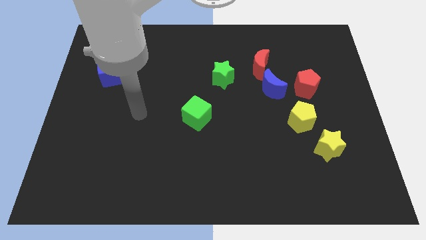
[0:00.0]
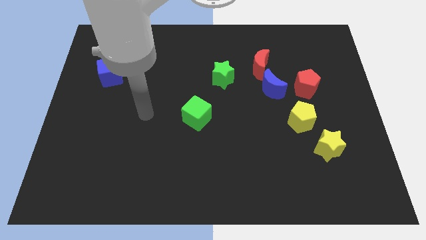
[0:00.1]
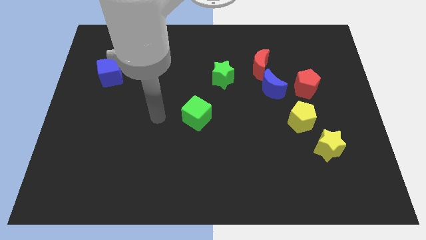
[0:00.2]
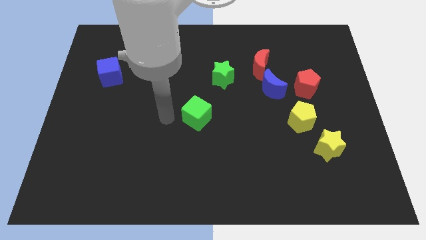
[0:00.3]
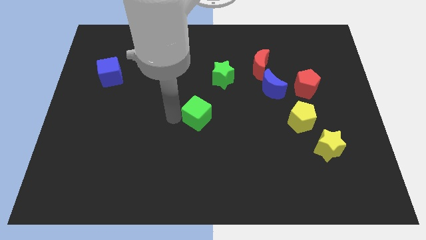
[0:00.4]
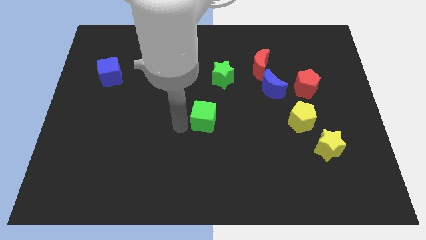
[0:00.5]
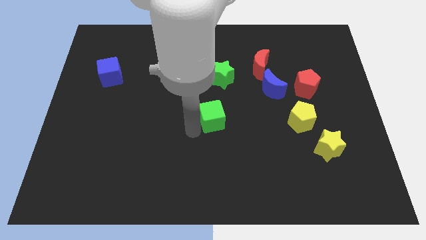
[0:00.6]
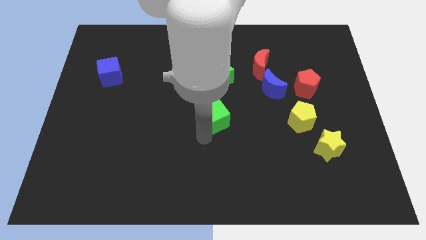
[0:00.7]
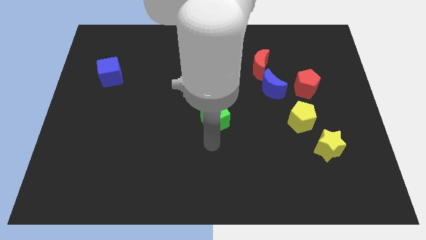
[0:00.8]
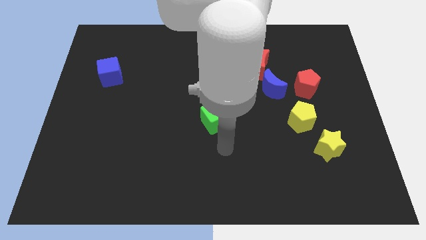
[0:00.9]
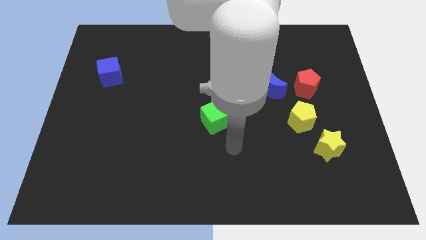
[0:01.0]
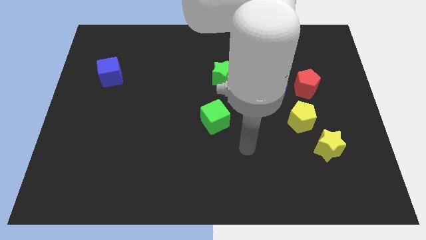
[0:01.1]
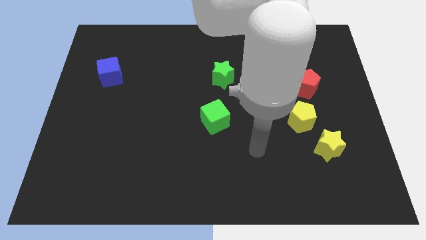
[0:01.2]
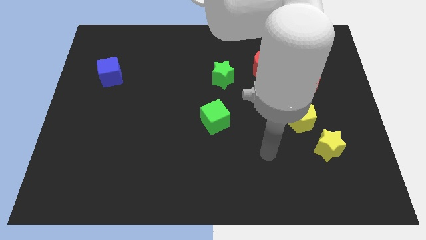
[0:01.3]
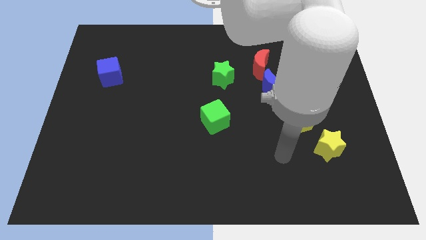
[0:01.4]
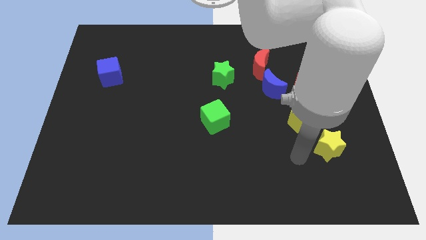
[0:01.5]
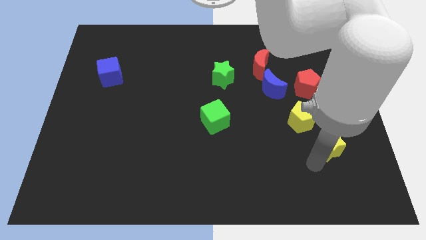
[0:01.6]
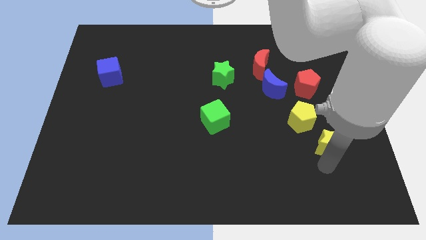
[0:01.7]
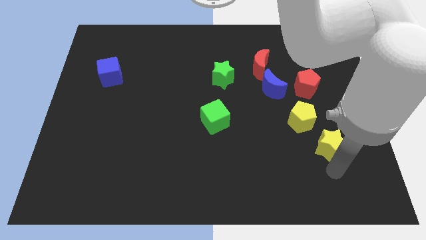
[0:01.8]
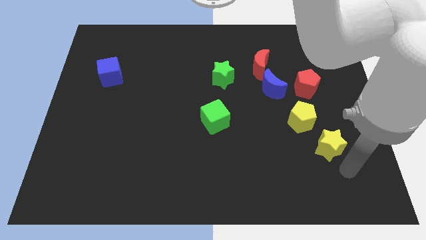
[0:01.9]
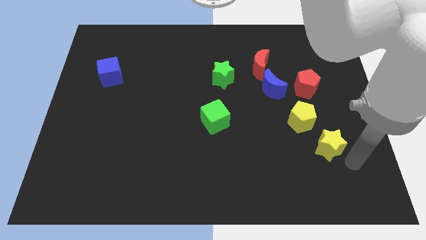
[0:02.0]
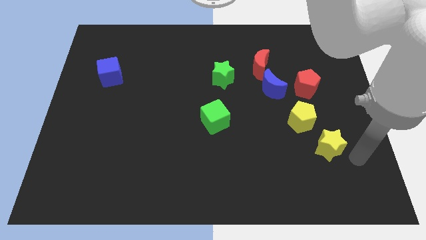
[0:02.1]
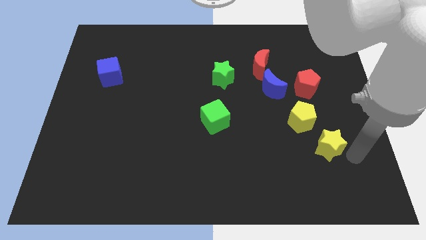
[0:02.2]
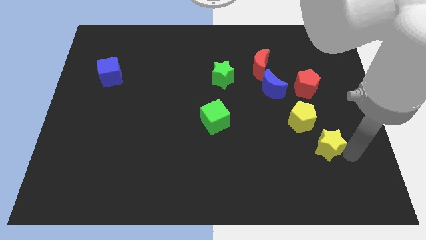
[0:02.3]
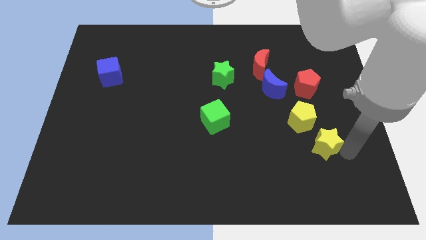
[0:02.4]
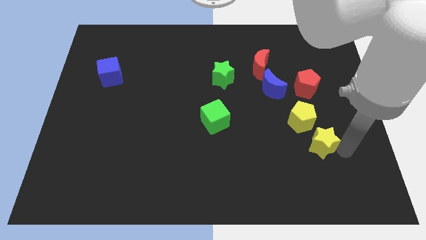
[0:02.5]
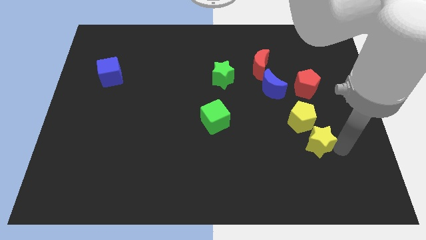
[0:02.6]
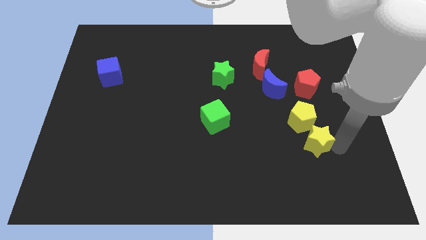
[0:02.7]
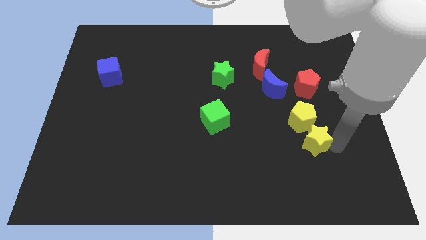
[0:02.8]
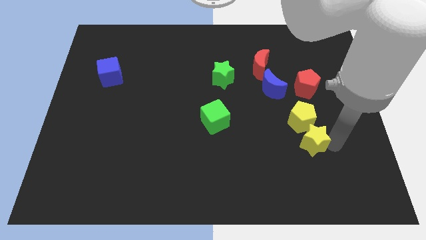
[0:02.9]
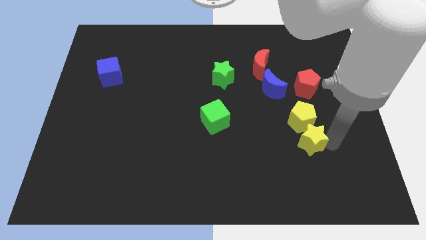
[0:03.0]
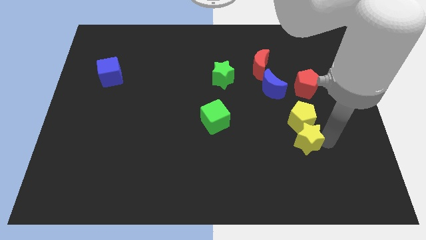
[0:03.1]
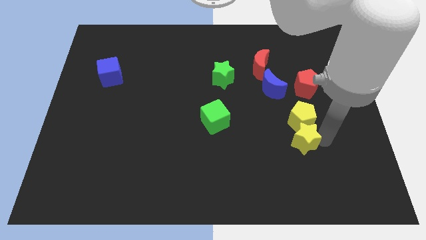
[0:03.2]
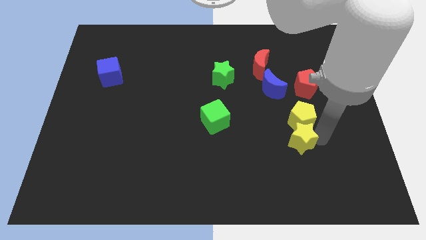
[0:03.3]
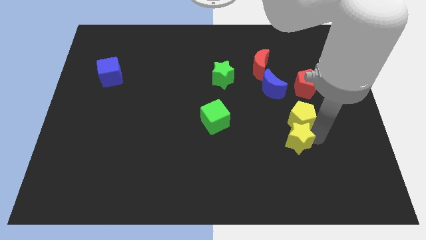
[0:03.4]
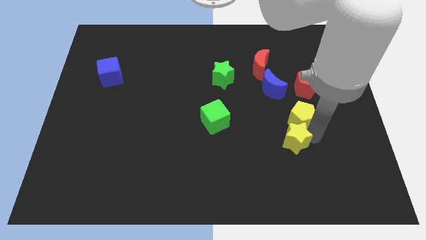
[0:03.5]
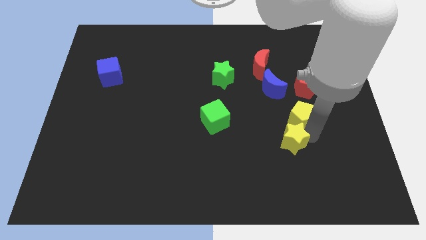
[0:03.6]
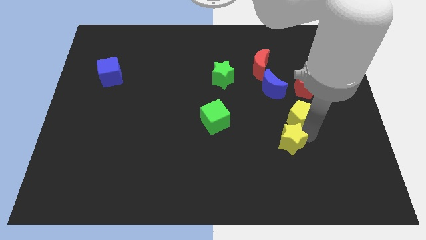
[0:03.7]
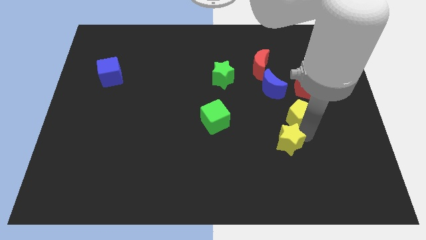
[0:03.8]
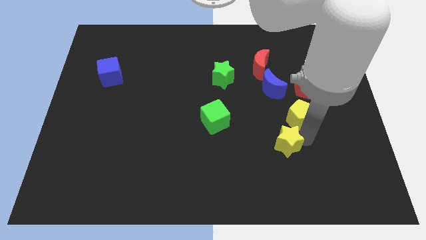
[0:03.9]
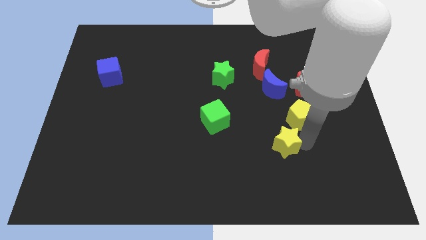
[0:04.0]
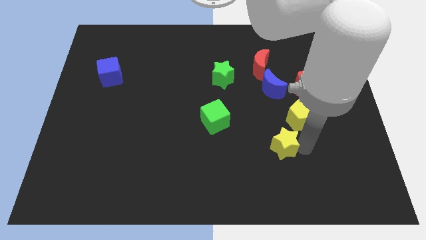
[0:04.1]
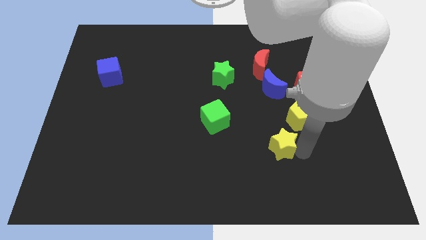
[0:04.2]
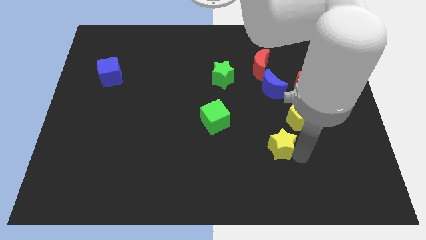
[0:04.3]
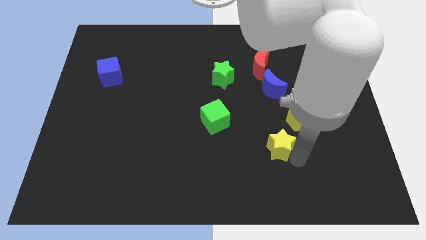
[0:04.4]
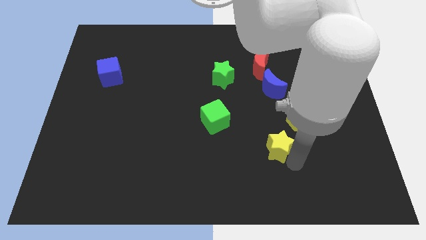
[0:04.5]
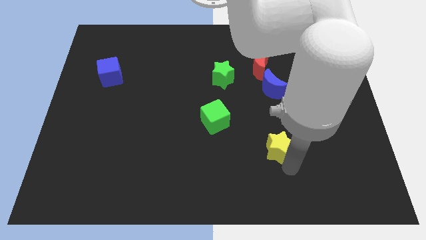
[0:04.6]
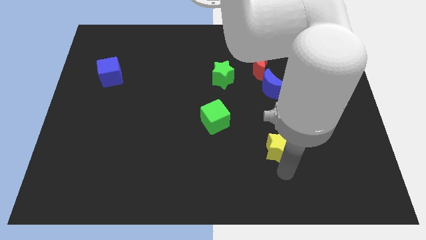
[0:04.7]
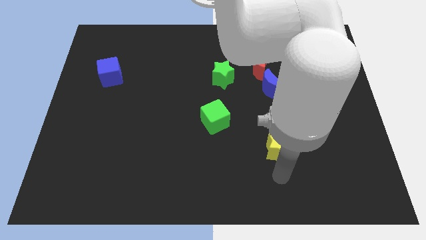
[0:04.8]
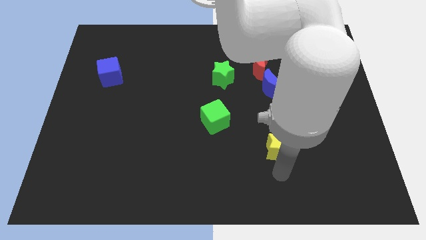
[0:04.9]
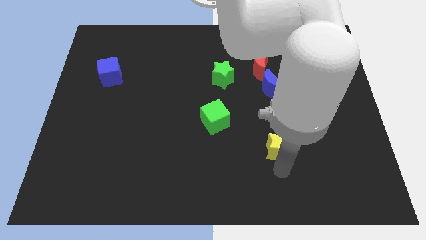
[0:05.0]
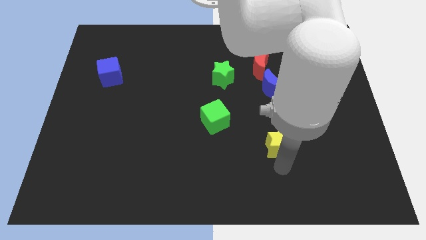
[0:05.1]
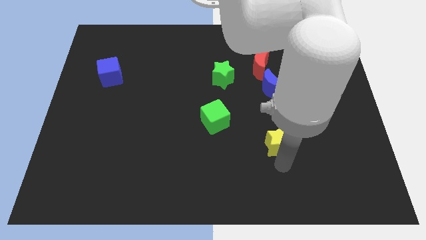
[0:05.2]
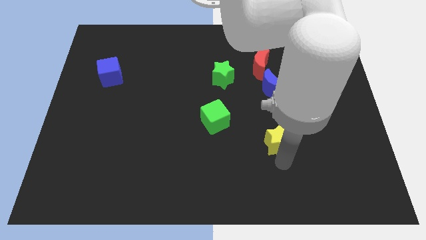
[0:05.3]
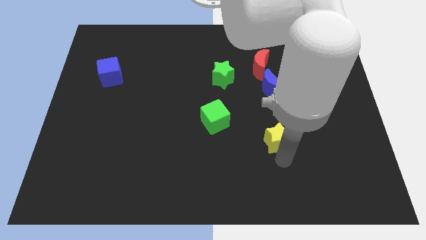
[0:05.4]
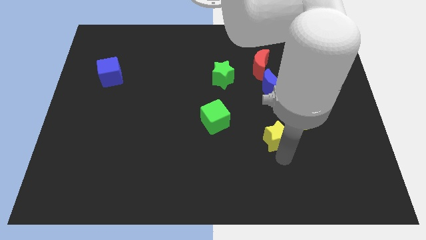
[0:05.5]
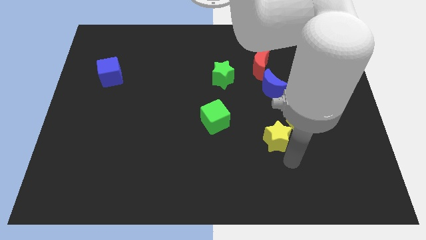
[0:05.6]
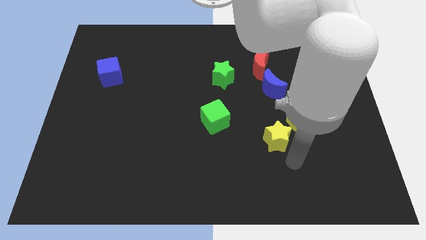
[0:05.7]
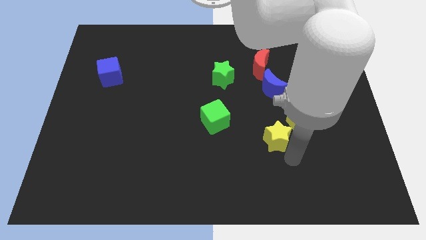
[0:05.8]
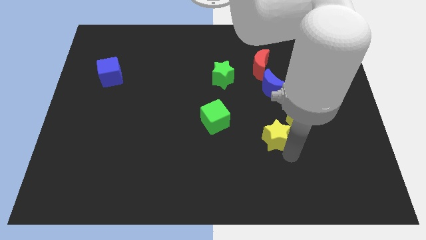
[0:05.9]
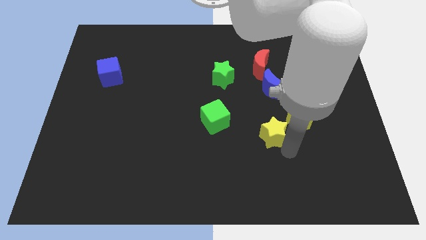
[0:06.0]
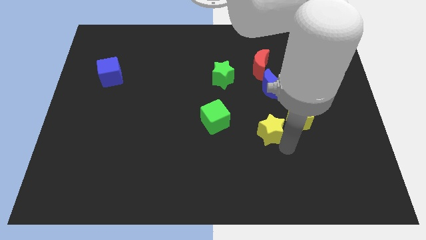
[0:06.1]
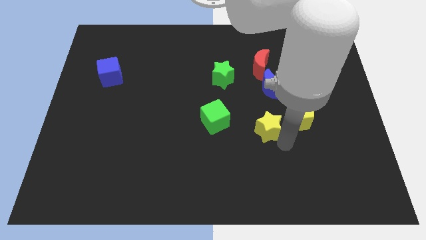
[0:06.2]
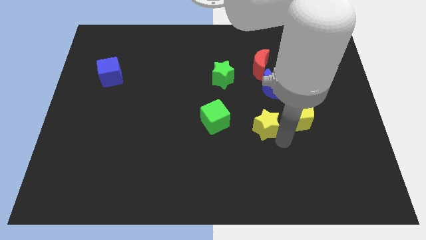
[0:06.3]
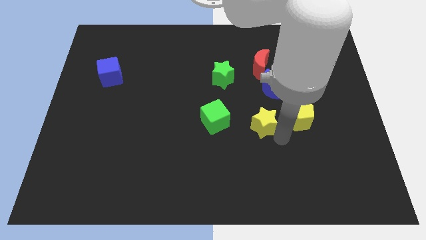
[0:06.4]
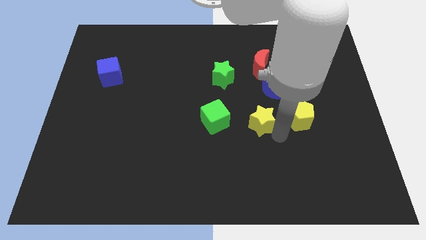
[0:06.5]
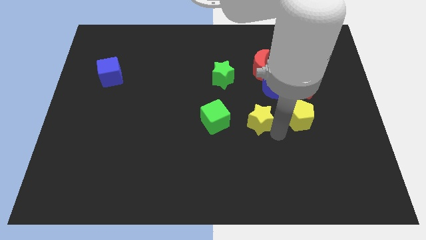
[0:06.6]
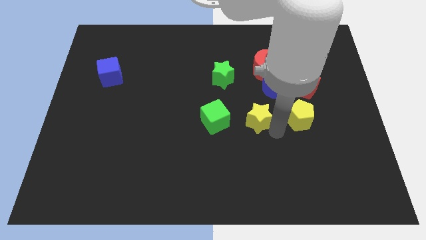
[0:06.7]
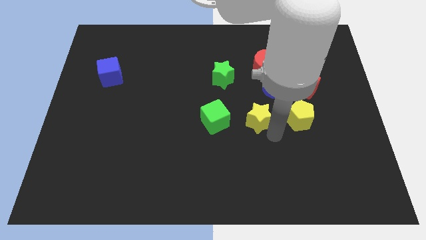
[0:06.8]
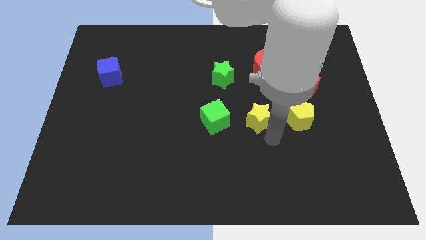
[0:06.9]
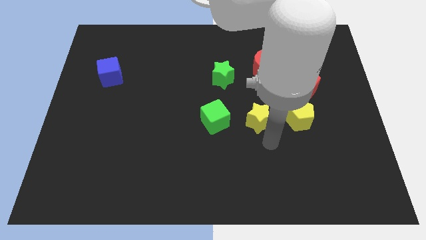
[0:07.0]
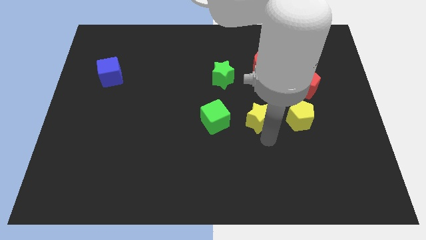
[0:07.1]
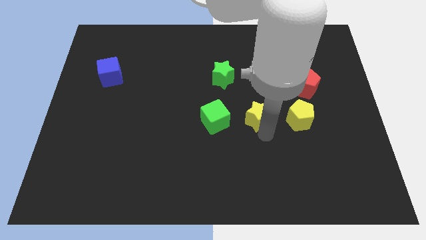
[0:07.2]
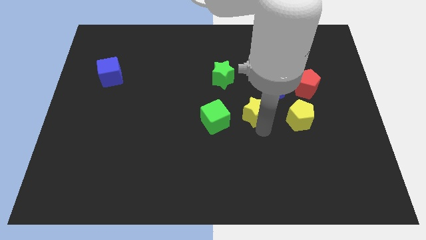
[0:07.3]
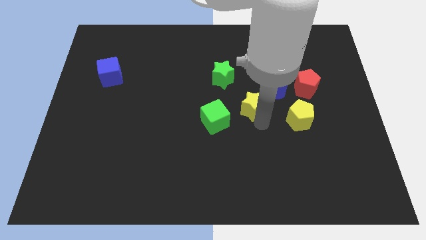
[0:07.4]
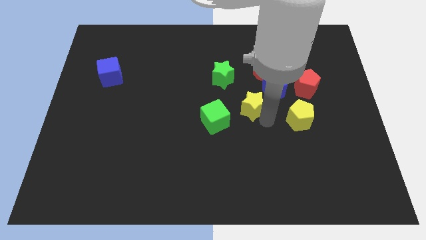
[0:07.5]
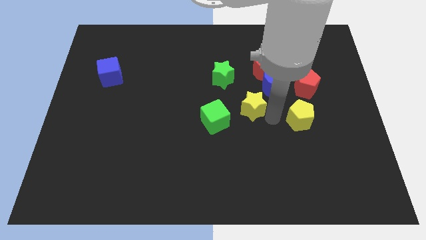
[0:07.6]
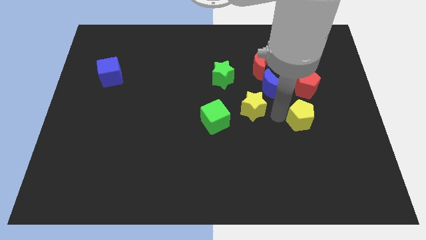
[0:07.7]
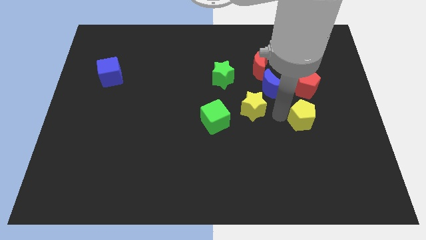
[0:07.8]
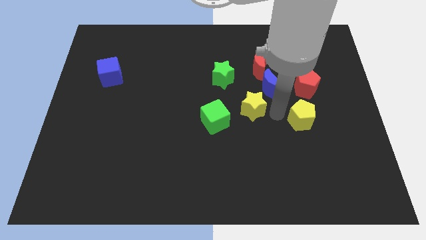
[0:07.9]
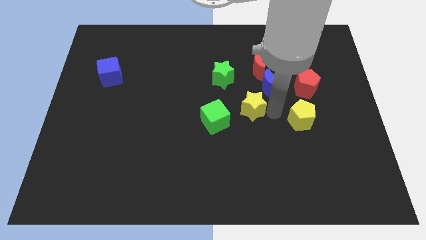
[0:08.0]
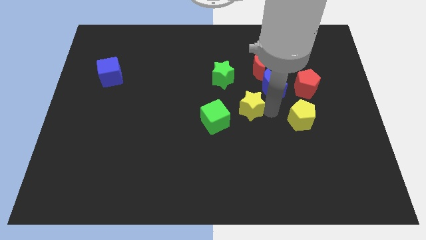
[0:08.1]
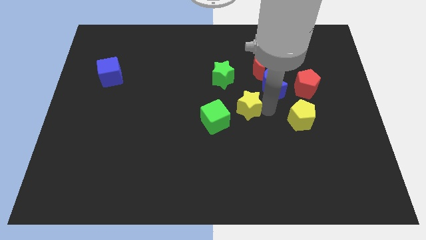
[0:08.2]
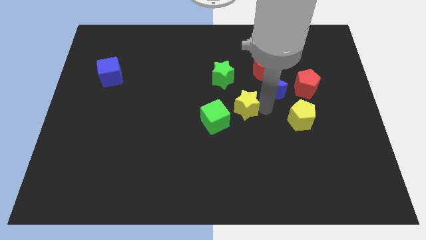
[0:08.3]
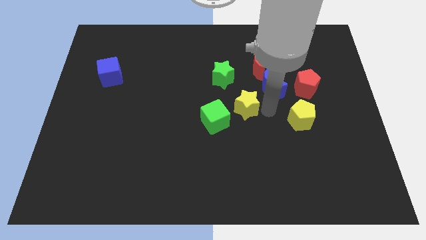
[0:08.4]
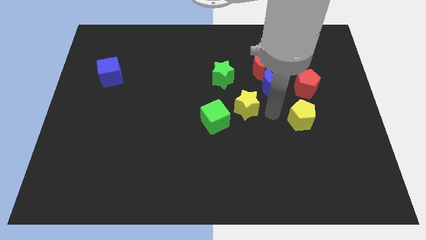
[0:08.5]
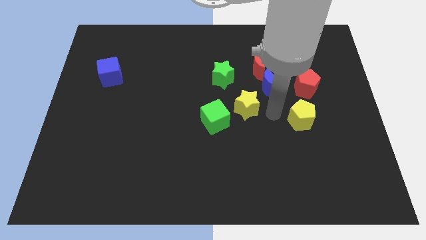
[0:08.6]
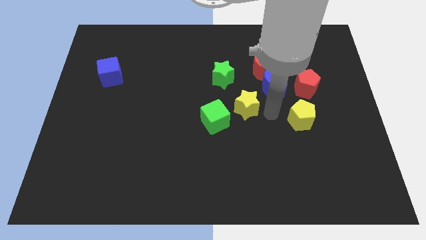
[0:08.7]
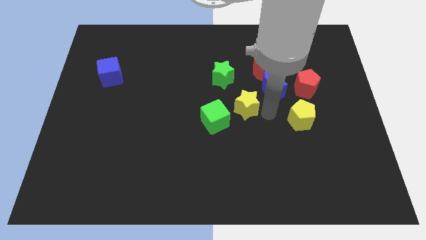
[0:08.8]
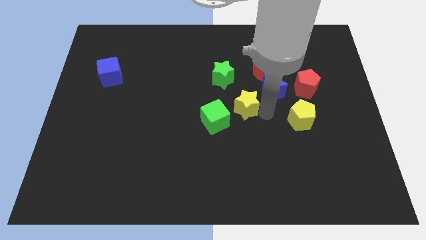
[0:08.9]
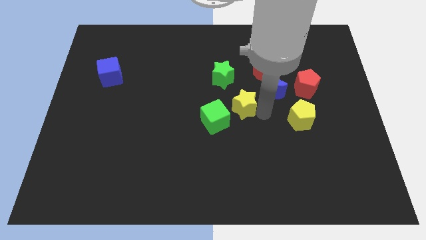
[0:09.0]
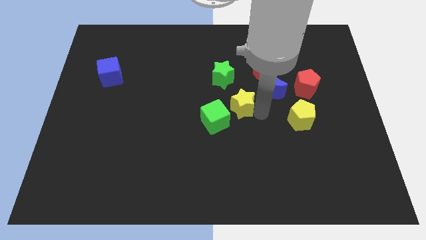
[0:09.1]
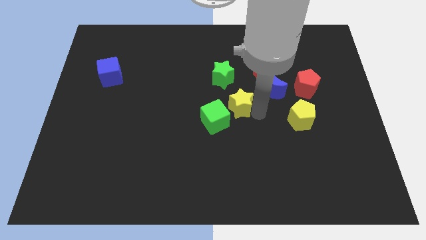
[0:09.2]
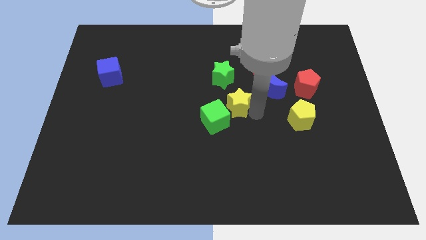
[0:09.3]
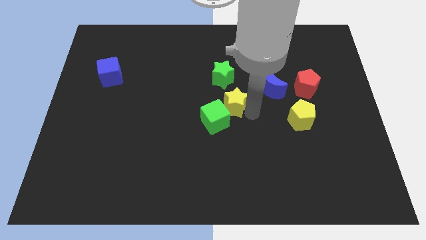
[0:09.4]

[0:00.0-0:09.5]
slide the yellow star to the top of the green cube
